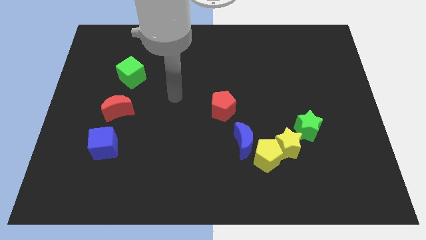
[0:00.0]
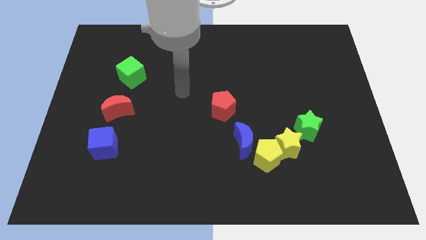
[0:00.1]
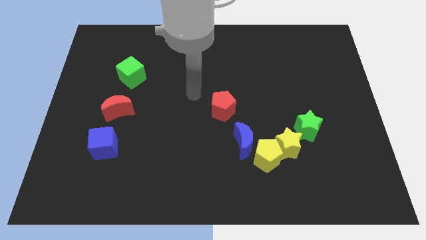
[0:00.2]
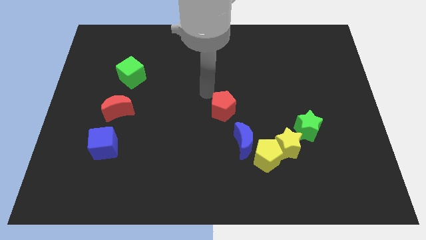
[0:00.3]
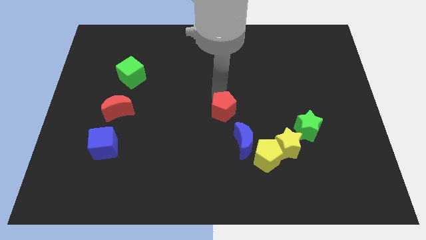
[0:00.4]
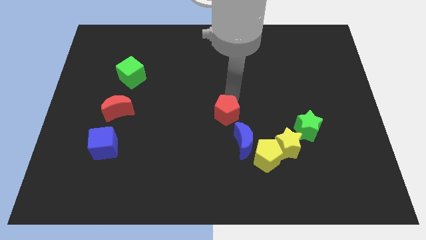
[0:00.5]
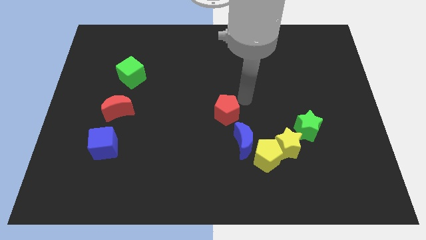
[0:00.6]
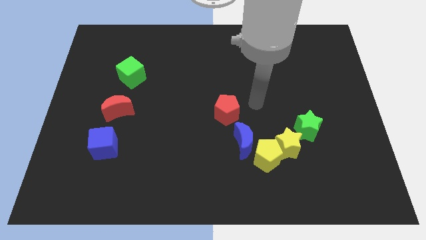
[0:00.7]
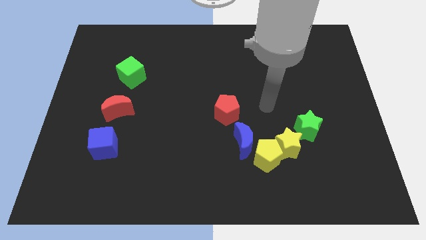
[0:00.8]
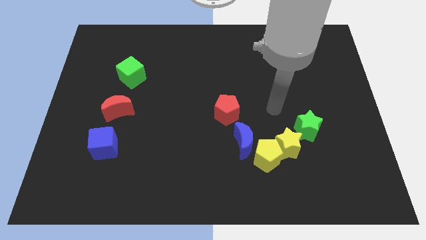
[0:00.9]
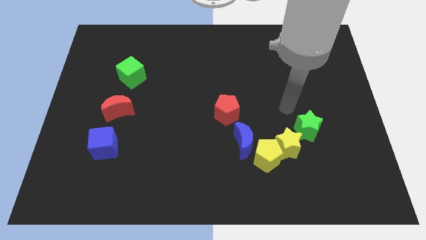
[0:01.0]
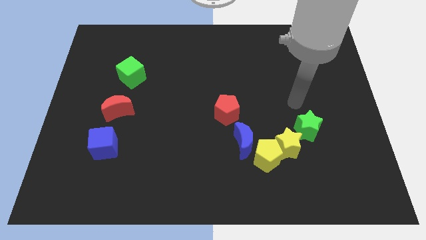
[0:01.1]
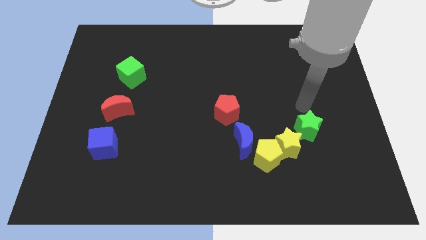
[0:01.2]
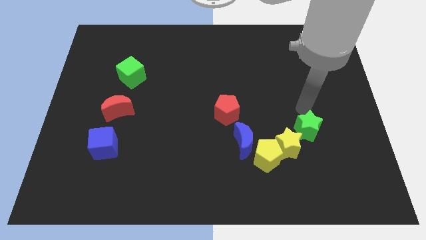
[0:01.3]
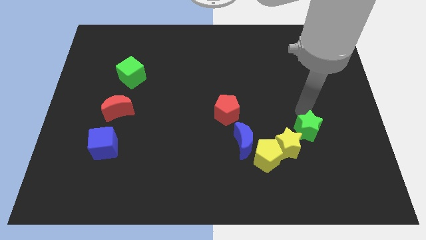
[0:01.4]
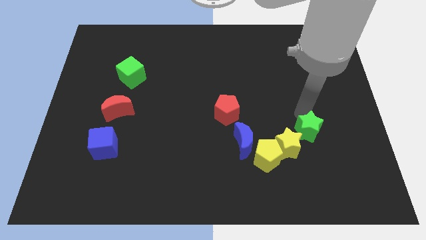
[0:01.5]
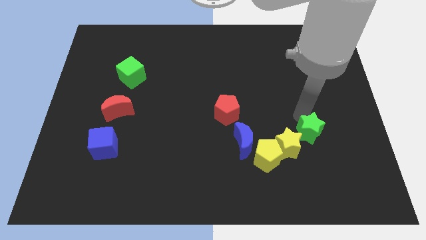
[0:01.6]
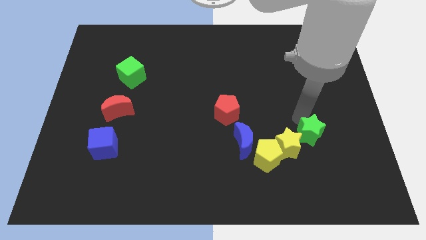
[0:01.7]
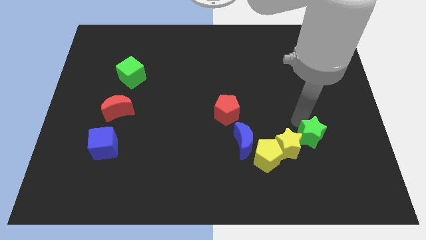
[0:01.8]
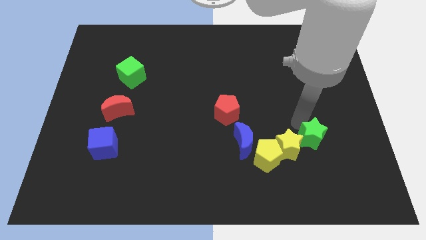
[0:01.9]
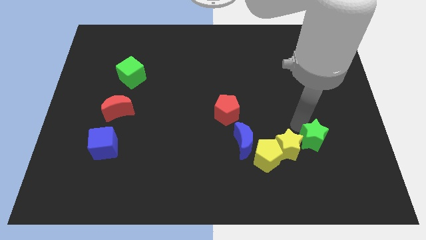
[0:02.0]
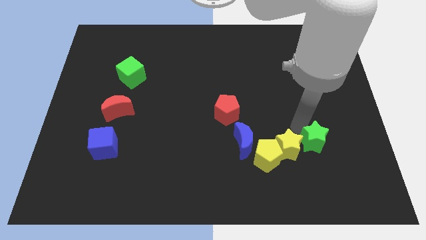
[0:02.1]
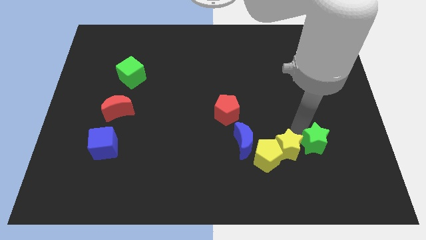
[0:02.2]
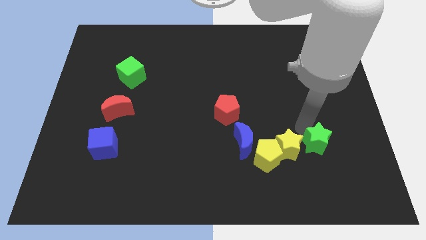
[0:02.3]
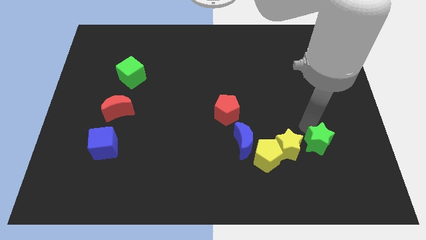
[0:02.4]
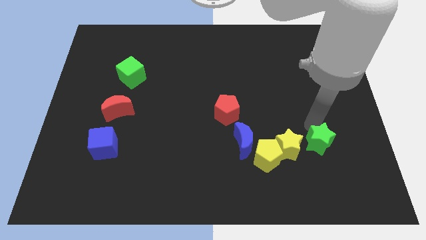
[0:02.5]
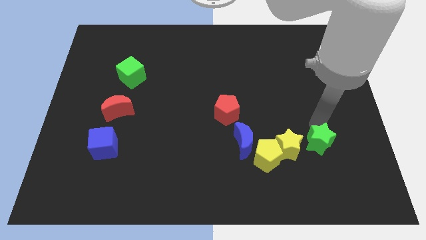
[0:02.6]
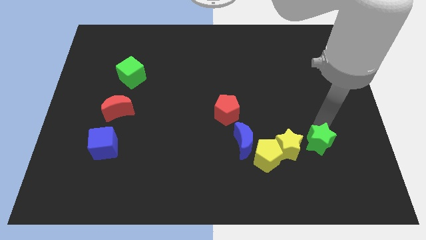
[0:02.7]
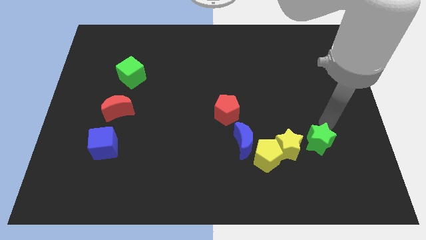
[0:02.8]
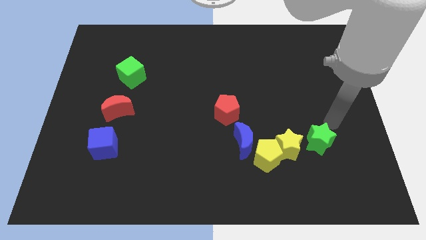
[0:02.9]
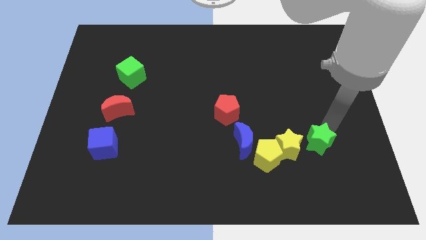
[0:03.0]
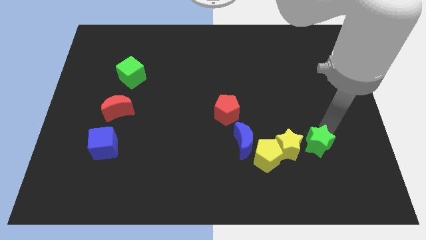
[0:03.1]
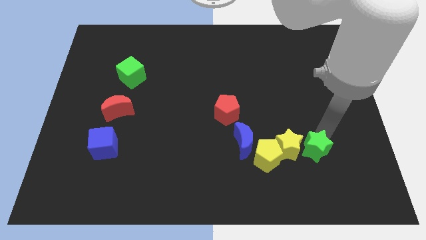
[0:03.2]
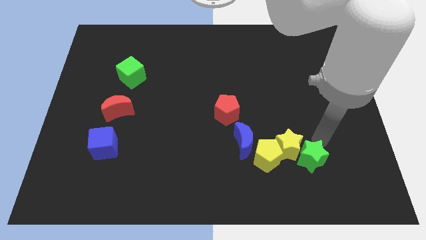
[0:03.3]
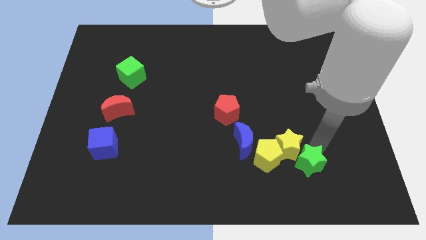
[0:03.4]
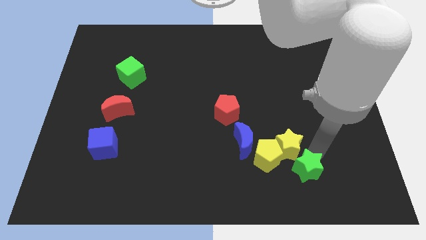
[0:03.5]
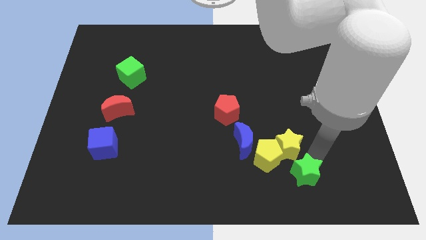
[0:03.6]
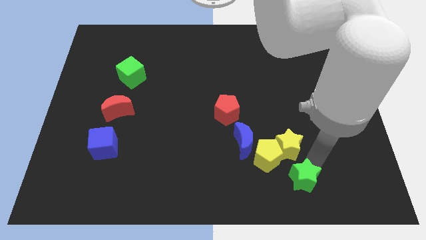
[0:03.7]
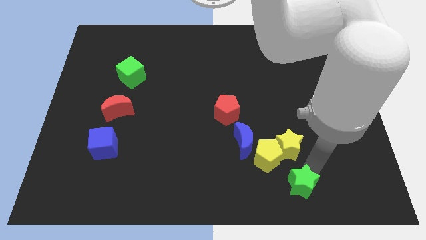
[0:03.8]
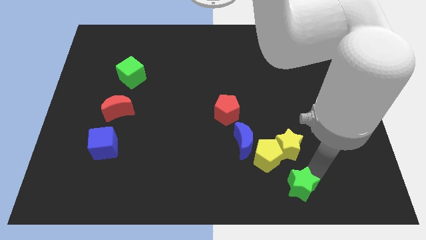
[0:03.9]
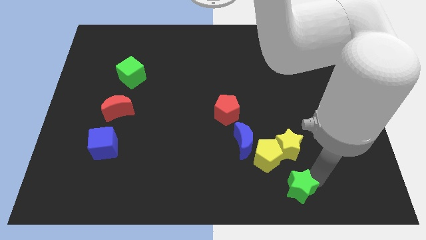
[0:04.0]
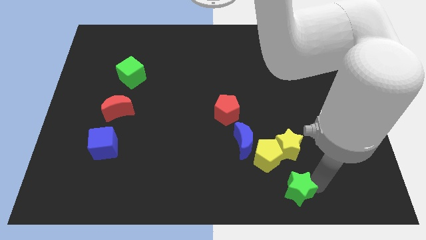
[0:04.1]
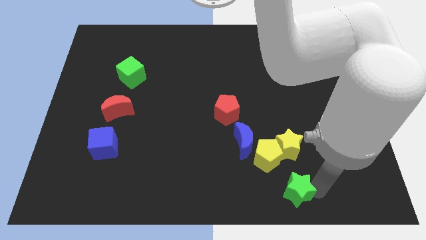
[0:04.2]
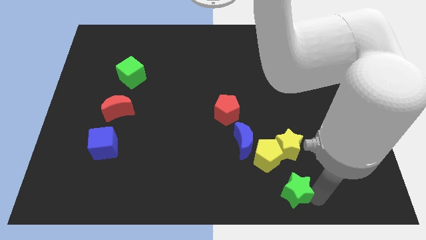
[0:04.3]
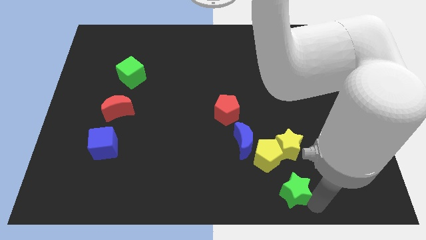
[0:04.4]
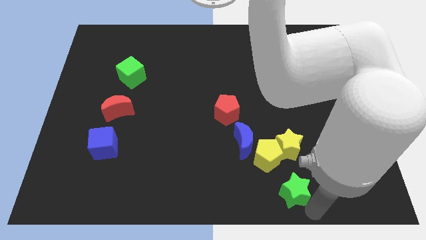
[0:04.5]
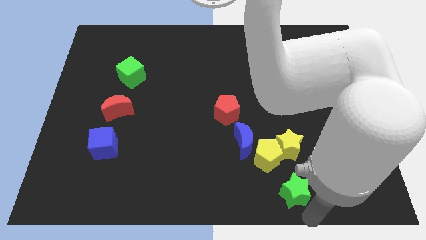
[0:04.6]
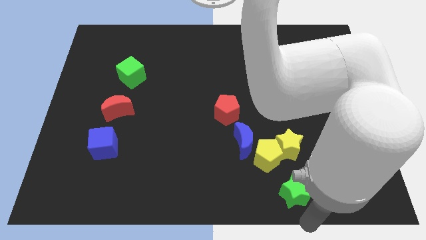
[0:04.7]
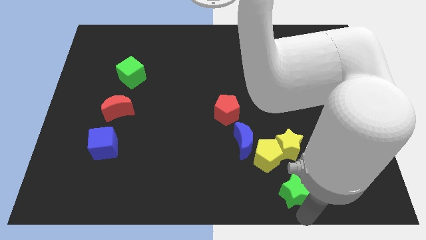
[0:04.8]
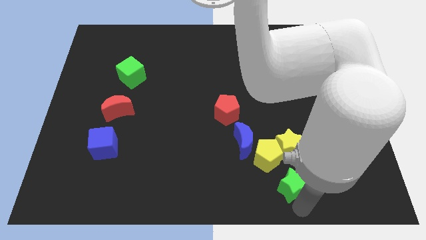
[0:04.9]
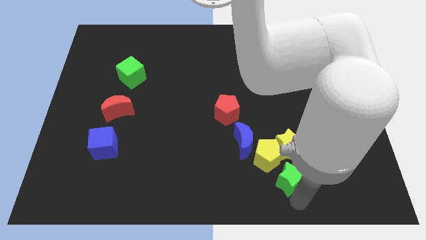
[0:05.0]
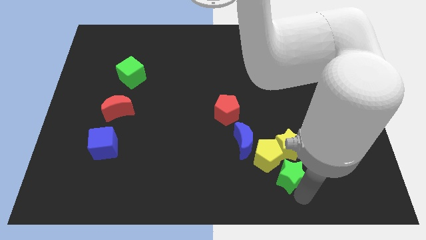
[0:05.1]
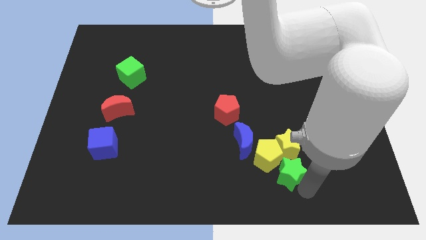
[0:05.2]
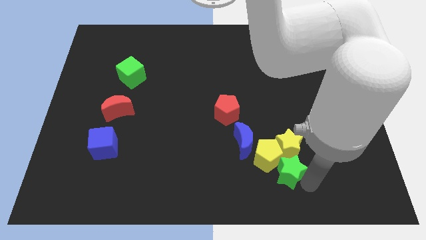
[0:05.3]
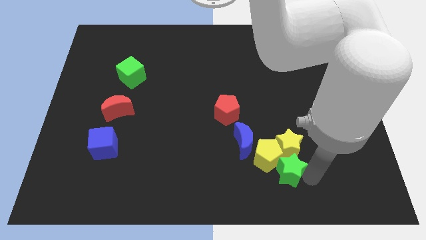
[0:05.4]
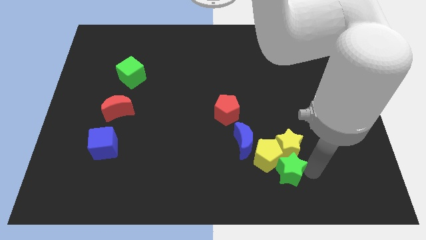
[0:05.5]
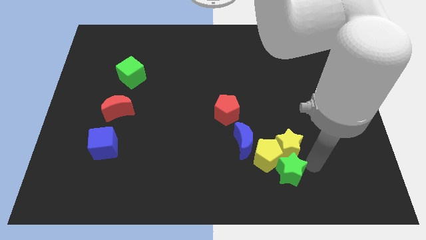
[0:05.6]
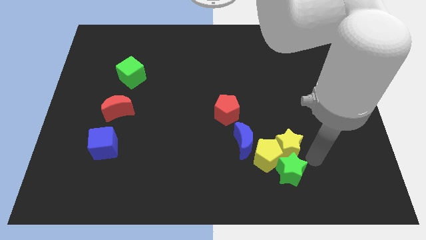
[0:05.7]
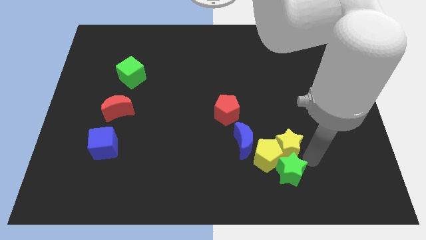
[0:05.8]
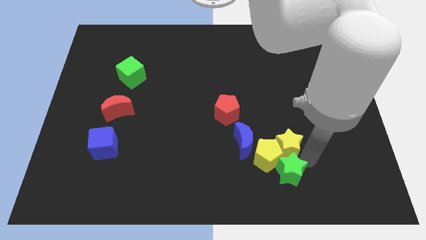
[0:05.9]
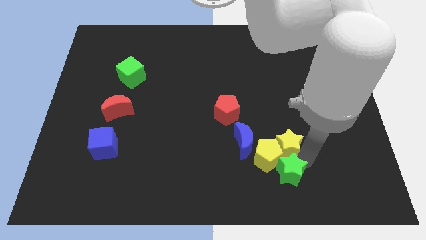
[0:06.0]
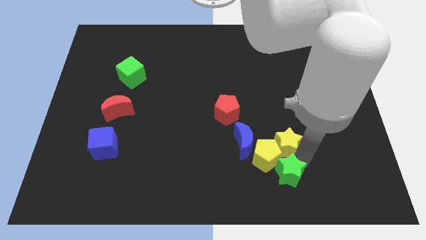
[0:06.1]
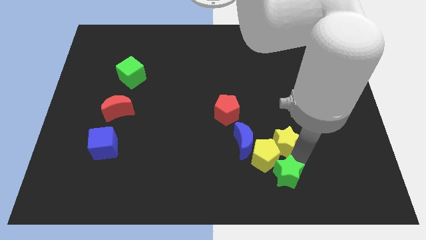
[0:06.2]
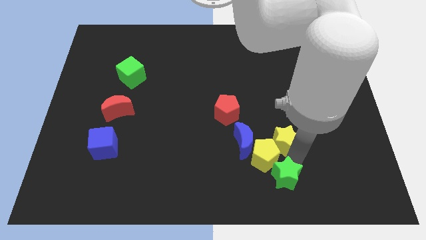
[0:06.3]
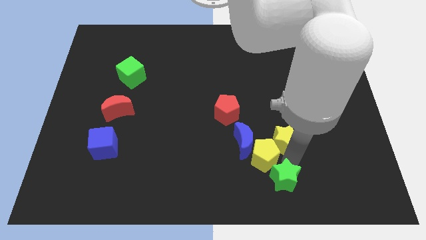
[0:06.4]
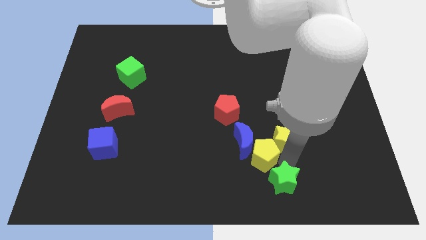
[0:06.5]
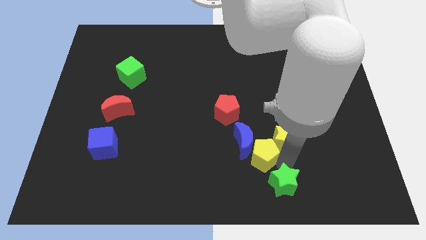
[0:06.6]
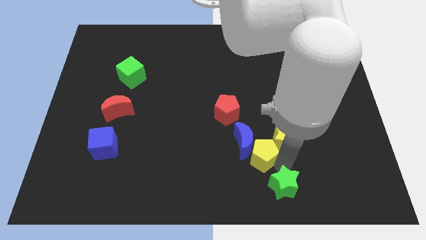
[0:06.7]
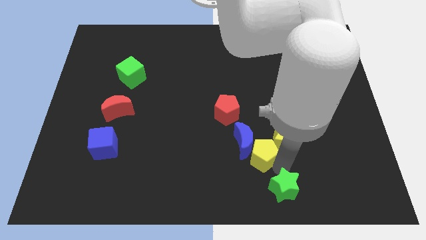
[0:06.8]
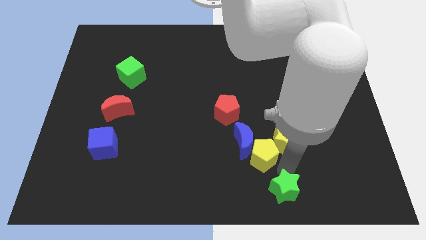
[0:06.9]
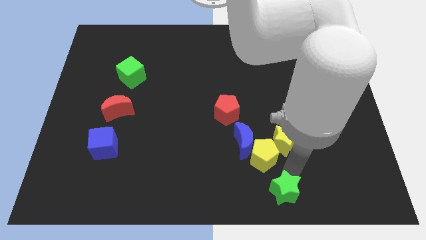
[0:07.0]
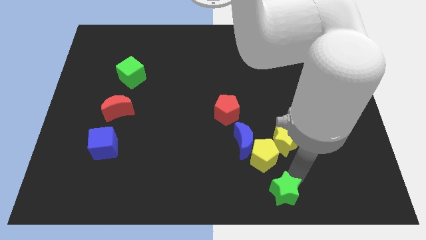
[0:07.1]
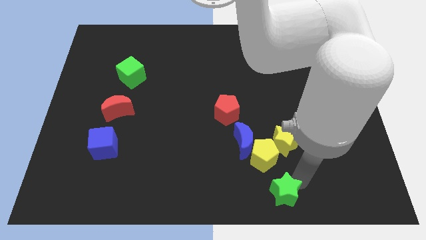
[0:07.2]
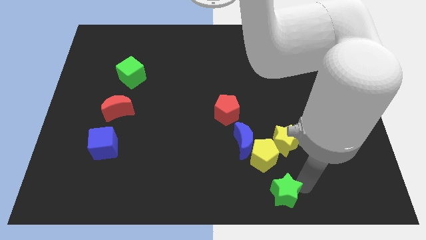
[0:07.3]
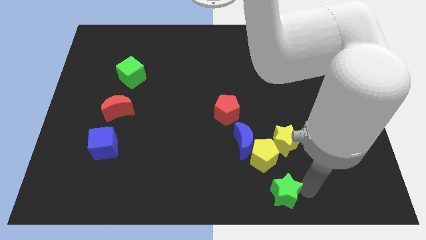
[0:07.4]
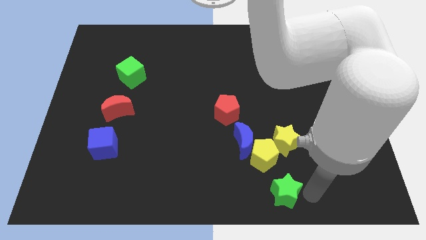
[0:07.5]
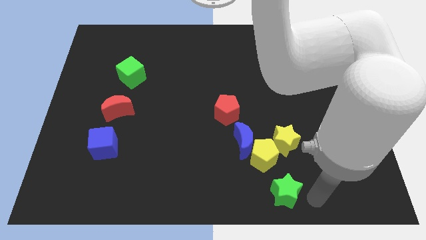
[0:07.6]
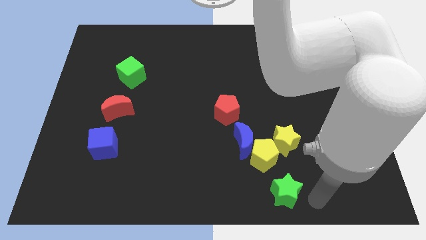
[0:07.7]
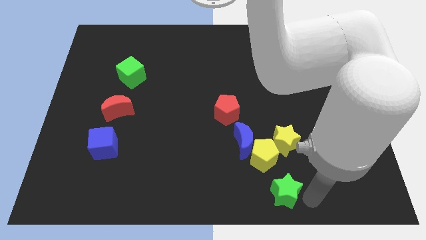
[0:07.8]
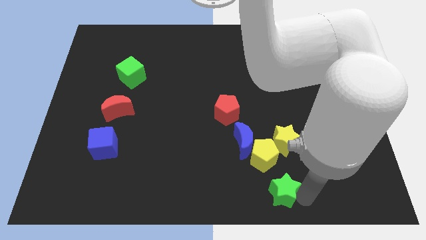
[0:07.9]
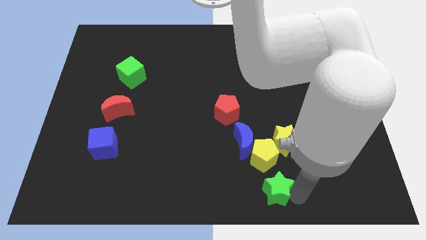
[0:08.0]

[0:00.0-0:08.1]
move the green star to the bottom

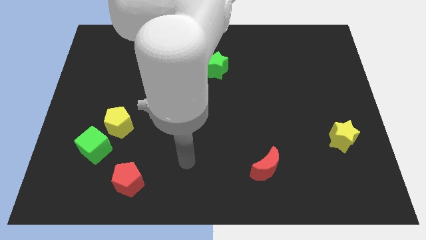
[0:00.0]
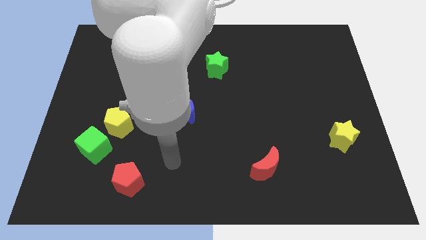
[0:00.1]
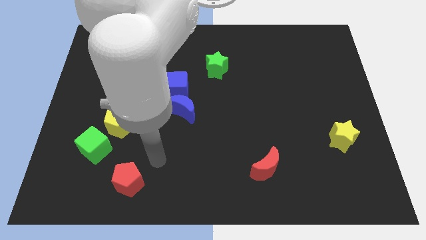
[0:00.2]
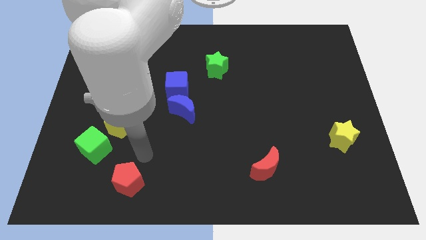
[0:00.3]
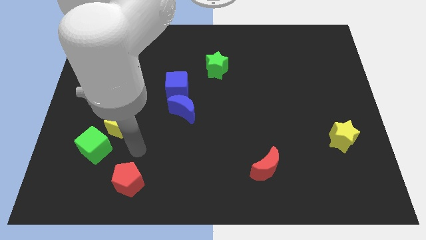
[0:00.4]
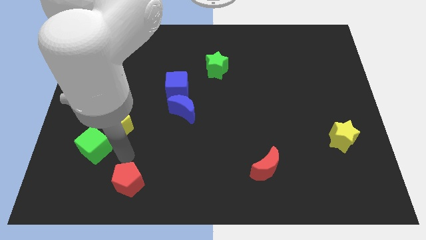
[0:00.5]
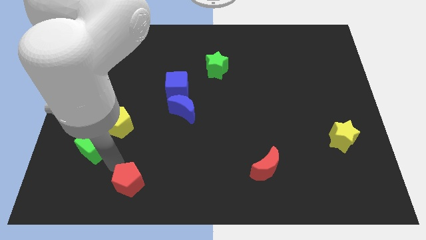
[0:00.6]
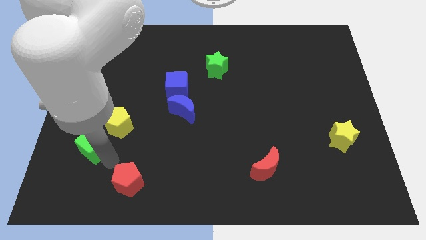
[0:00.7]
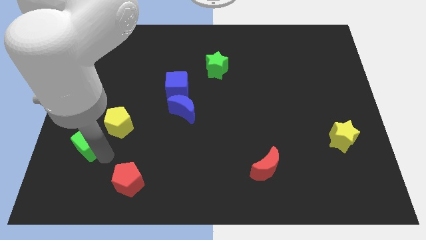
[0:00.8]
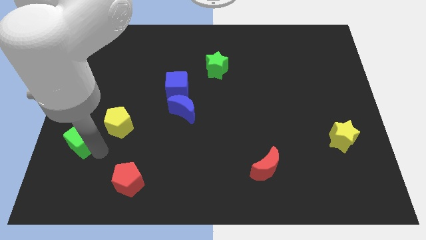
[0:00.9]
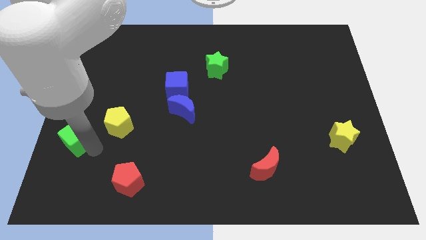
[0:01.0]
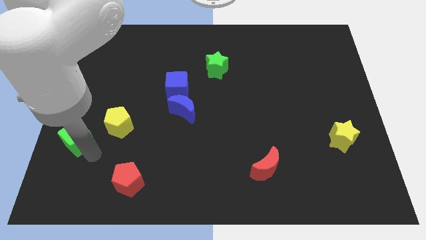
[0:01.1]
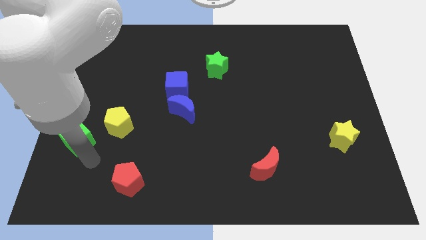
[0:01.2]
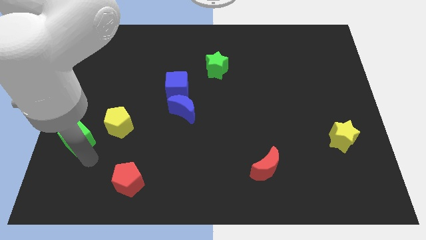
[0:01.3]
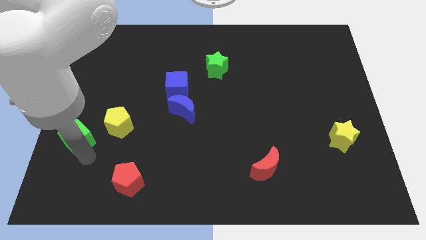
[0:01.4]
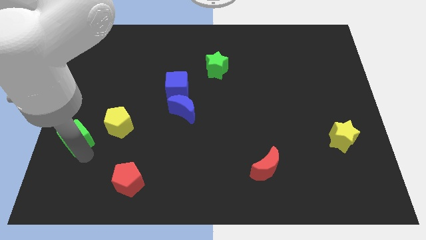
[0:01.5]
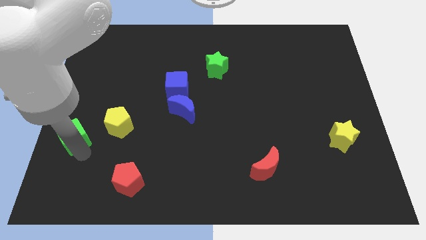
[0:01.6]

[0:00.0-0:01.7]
put the green cube to the center left
